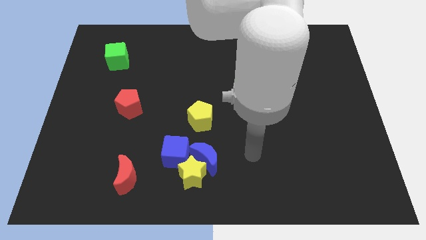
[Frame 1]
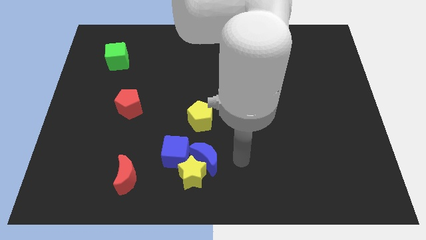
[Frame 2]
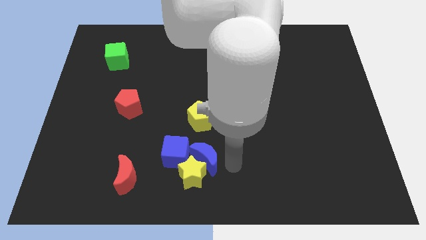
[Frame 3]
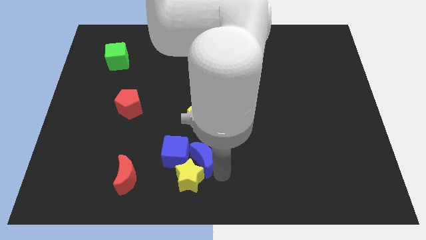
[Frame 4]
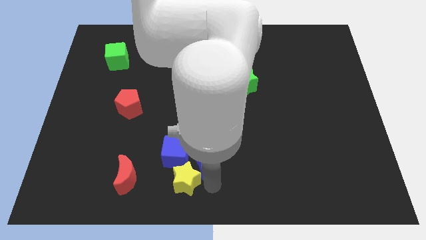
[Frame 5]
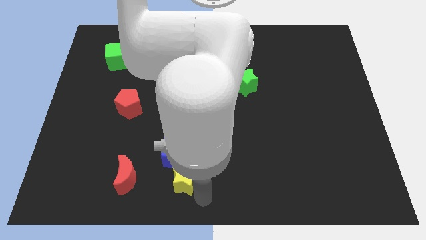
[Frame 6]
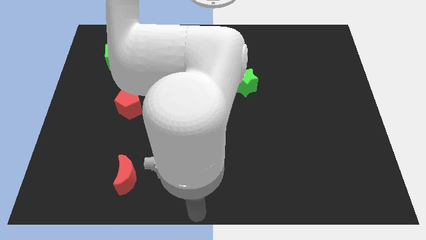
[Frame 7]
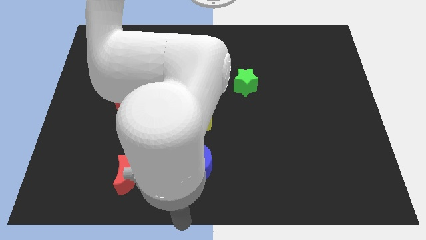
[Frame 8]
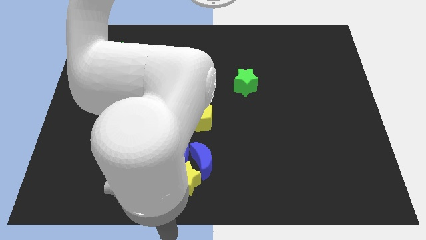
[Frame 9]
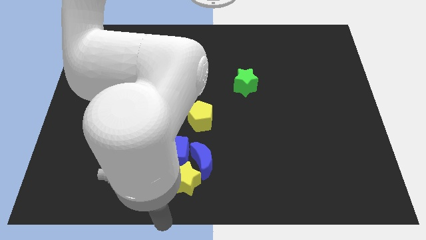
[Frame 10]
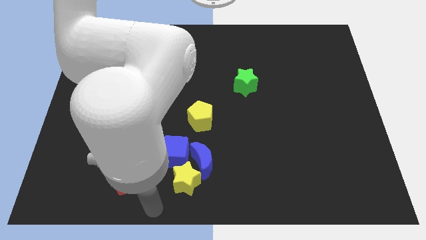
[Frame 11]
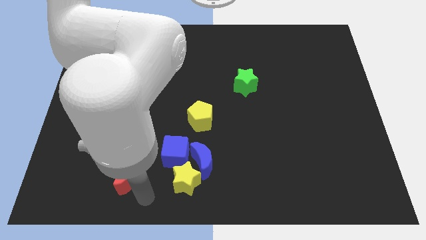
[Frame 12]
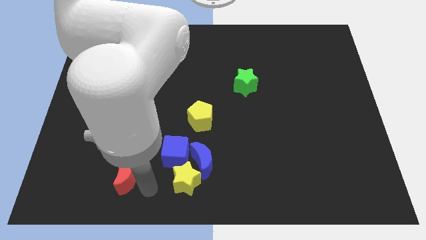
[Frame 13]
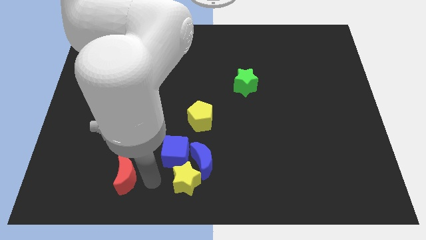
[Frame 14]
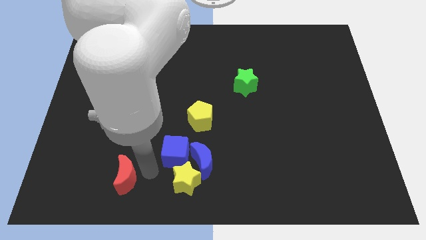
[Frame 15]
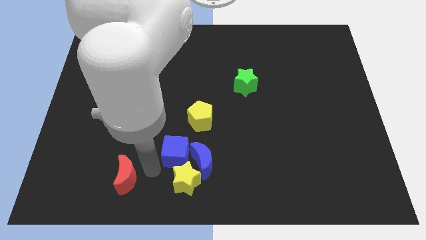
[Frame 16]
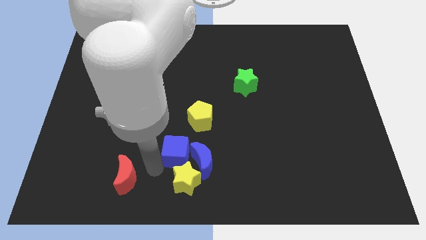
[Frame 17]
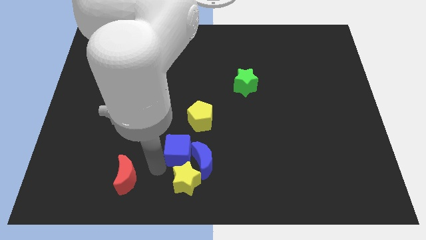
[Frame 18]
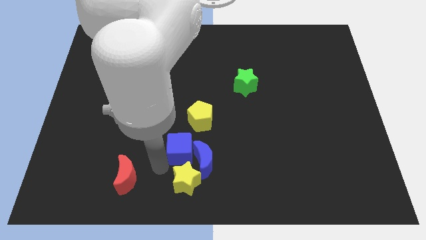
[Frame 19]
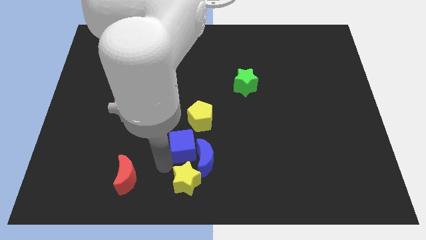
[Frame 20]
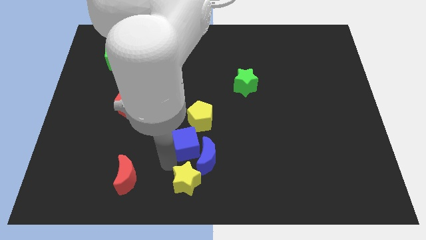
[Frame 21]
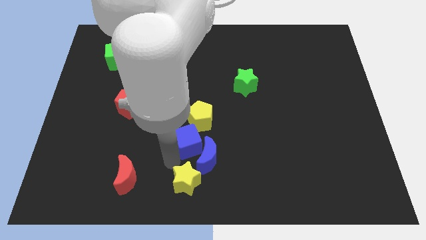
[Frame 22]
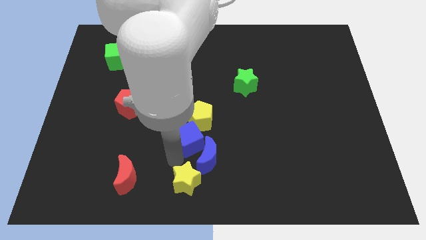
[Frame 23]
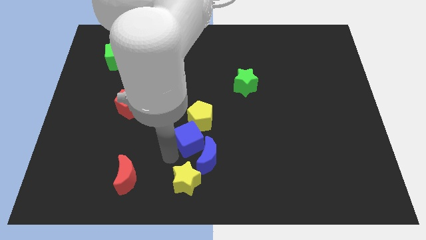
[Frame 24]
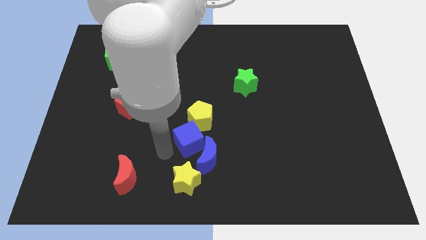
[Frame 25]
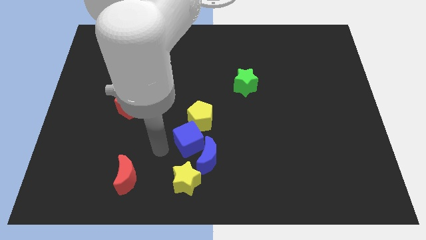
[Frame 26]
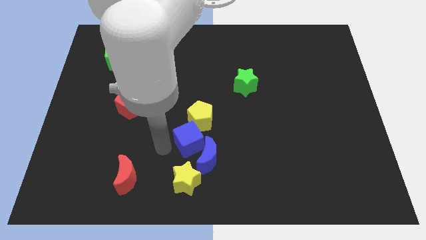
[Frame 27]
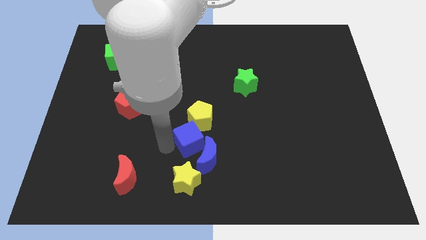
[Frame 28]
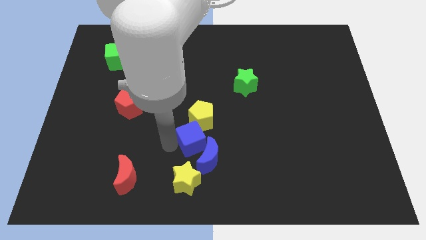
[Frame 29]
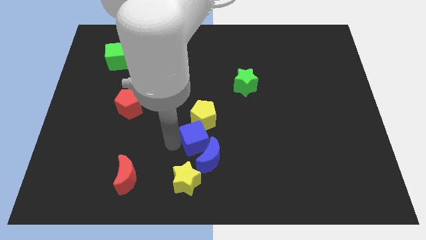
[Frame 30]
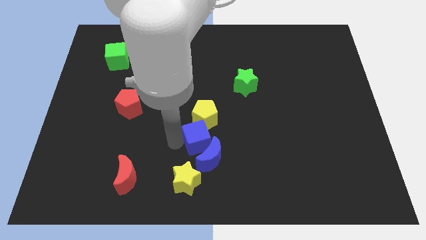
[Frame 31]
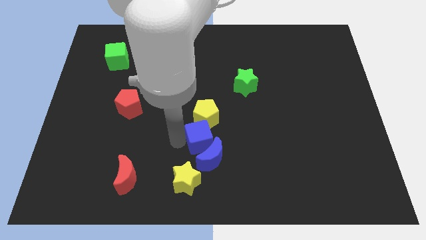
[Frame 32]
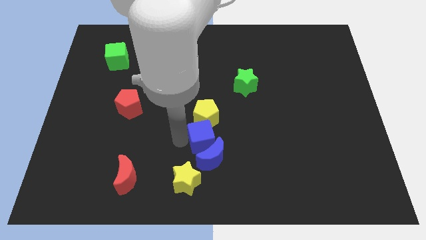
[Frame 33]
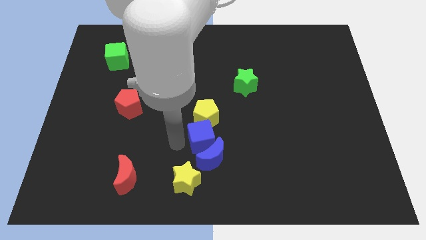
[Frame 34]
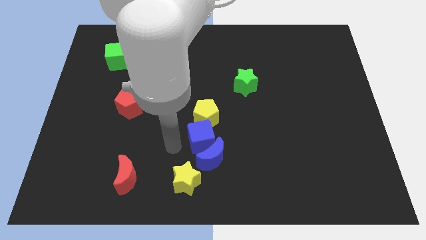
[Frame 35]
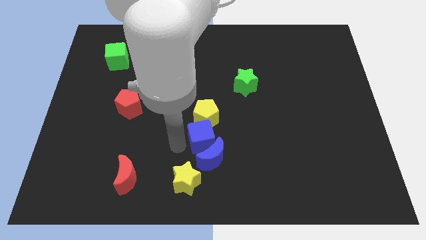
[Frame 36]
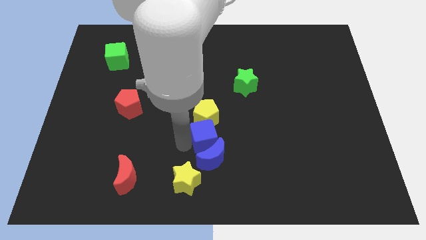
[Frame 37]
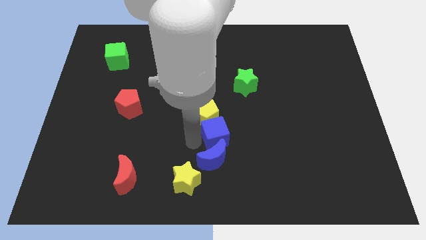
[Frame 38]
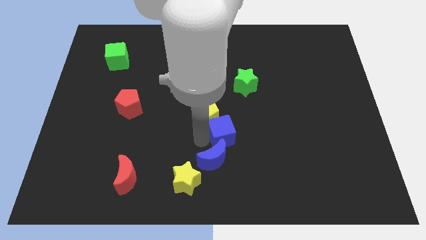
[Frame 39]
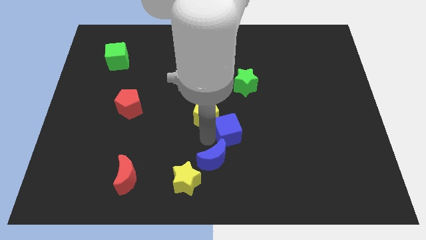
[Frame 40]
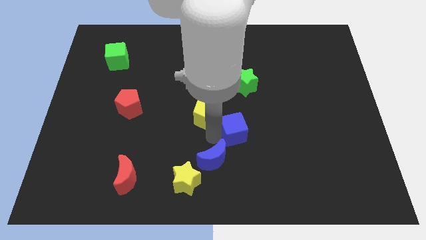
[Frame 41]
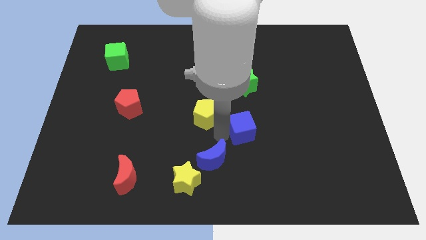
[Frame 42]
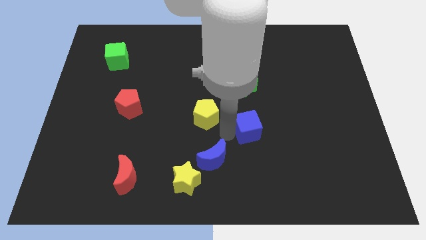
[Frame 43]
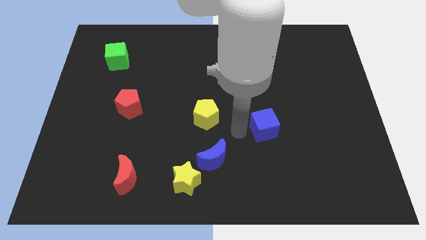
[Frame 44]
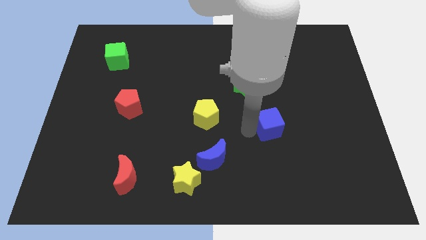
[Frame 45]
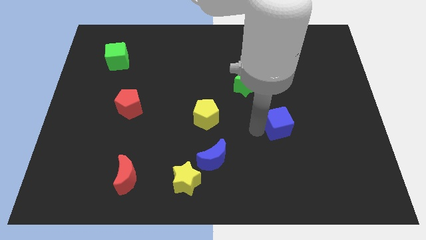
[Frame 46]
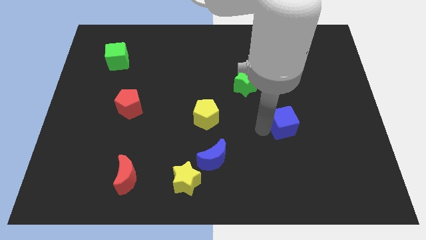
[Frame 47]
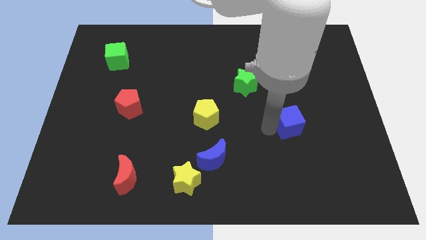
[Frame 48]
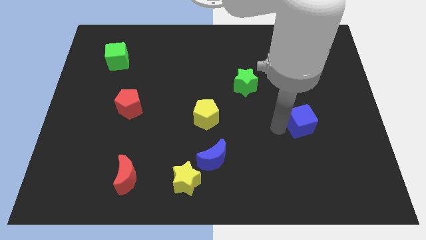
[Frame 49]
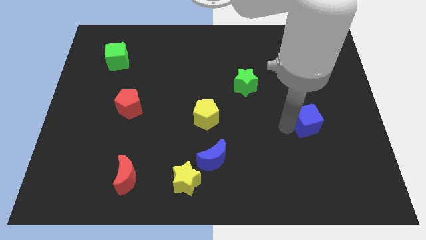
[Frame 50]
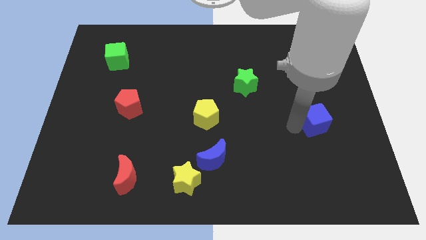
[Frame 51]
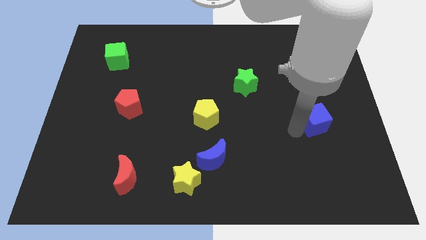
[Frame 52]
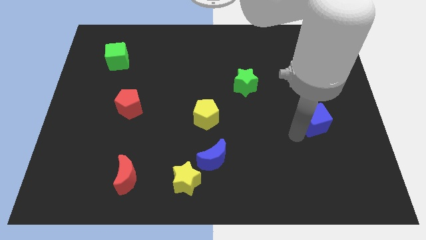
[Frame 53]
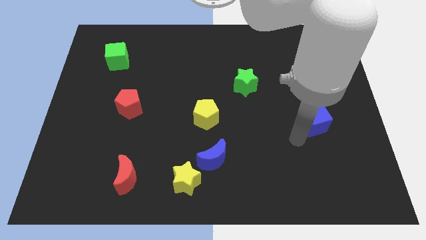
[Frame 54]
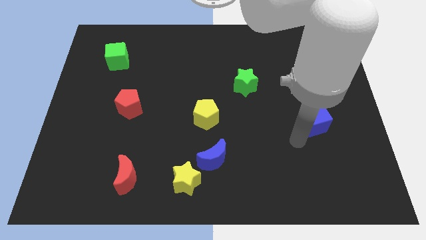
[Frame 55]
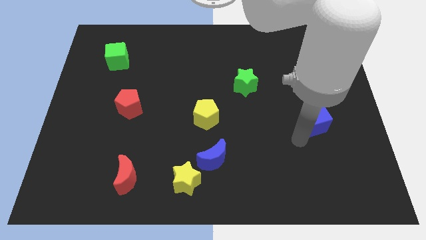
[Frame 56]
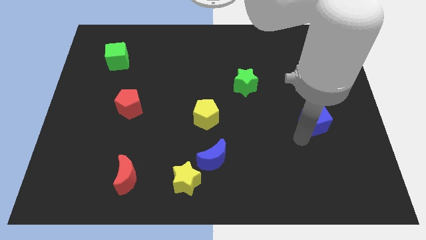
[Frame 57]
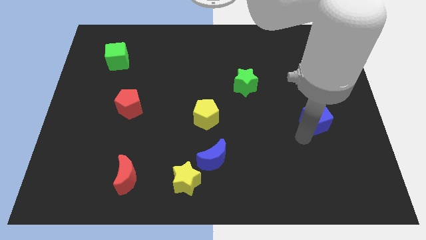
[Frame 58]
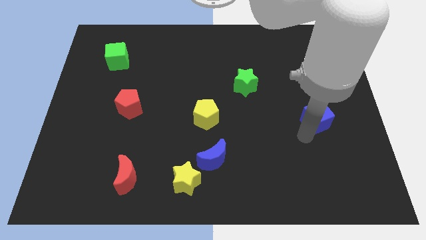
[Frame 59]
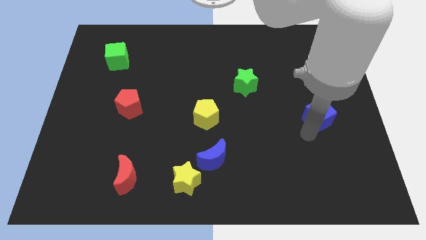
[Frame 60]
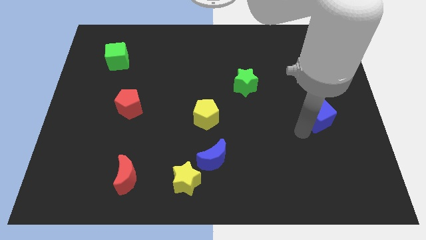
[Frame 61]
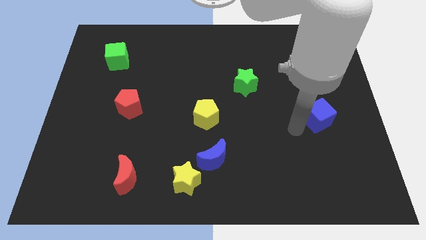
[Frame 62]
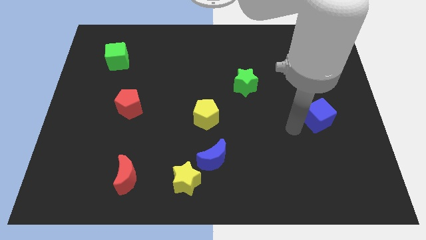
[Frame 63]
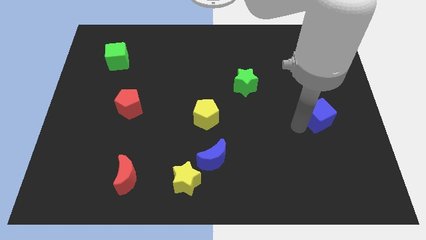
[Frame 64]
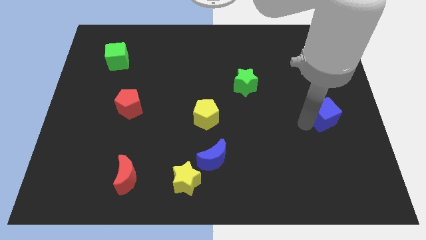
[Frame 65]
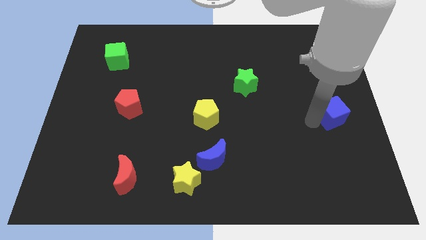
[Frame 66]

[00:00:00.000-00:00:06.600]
move the blue cube to the center right
